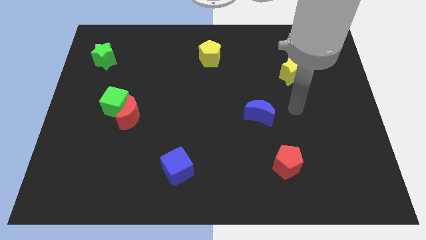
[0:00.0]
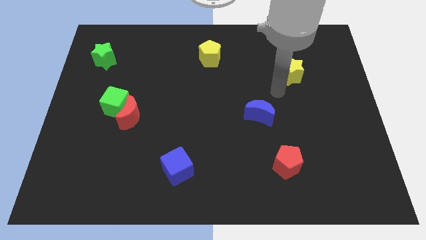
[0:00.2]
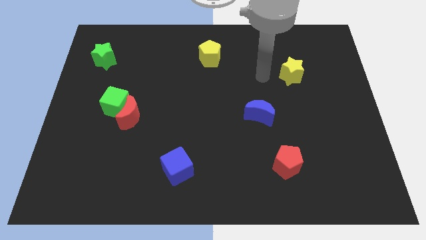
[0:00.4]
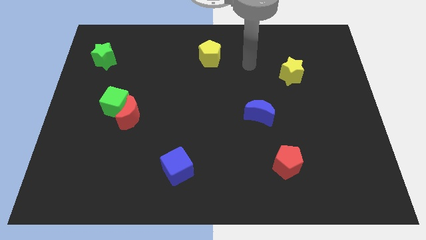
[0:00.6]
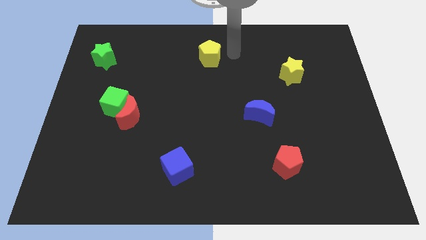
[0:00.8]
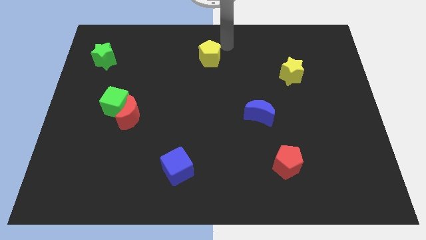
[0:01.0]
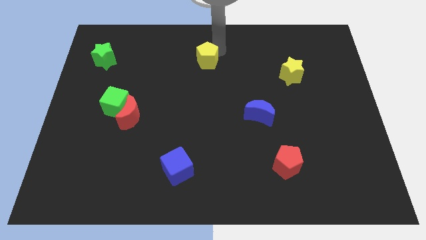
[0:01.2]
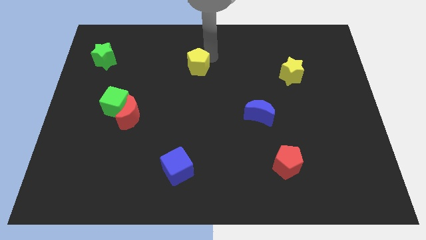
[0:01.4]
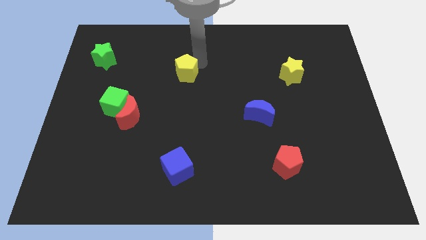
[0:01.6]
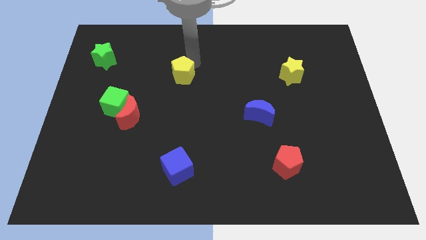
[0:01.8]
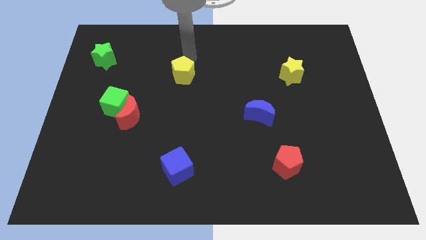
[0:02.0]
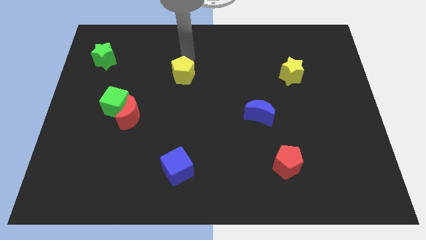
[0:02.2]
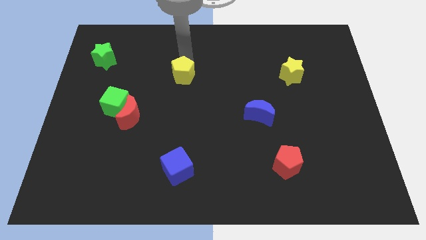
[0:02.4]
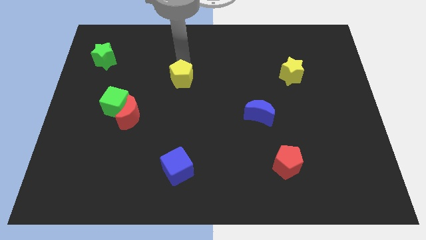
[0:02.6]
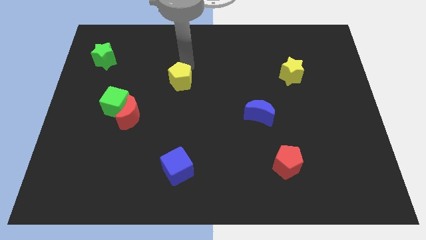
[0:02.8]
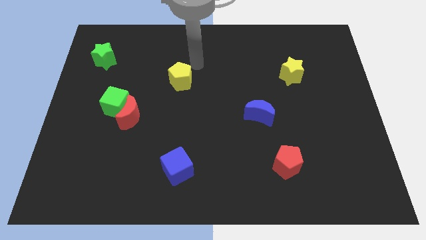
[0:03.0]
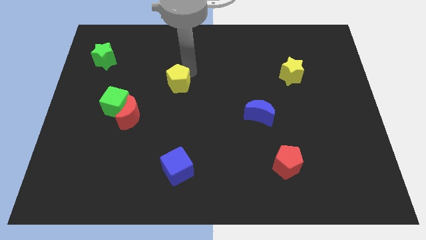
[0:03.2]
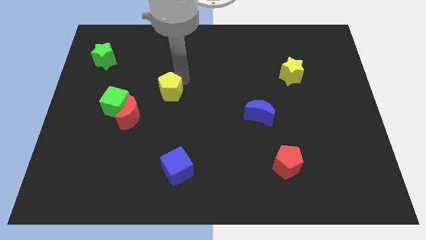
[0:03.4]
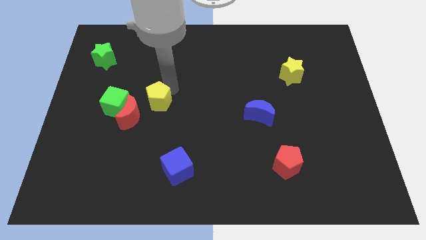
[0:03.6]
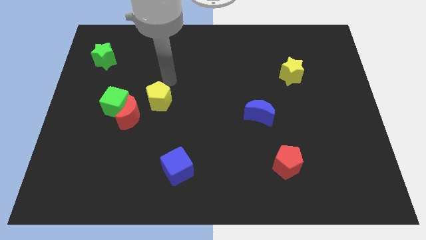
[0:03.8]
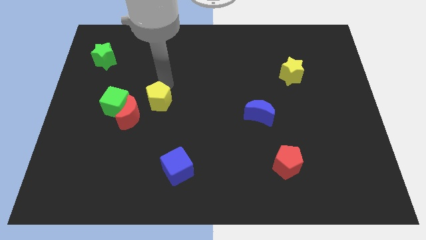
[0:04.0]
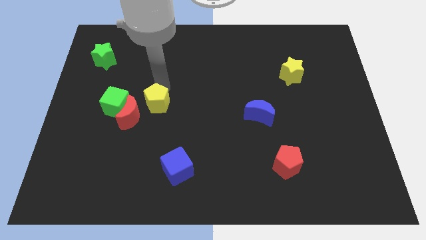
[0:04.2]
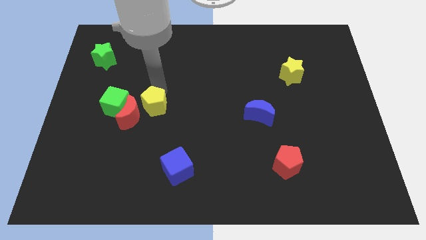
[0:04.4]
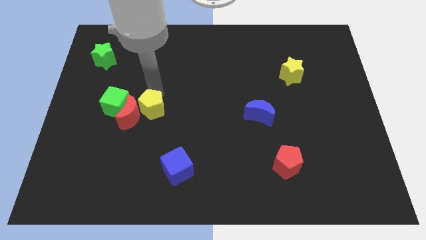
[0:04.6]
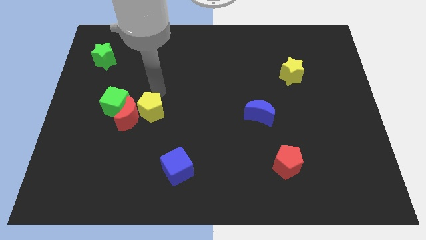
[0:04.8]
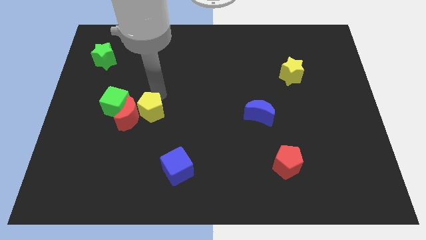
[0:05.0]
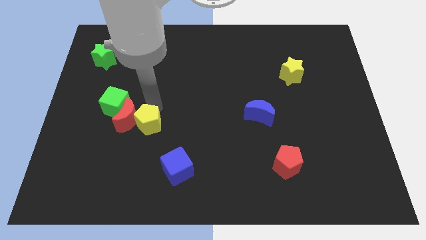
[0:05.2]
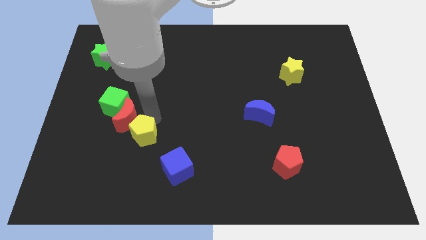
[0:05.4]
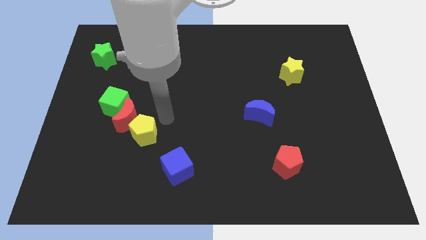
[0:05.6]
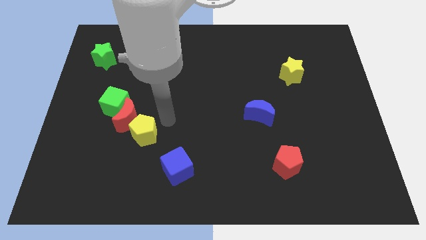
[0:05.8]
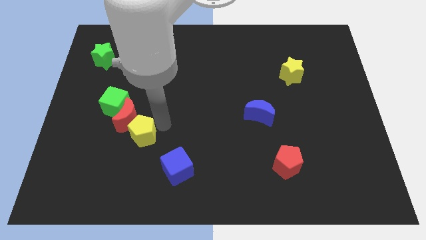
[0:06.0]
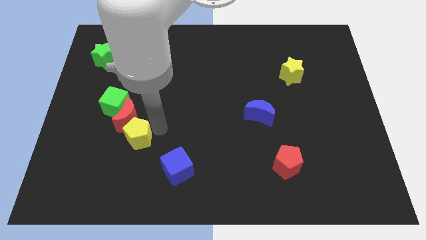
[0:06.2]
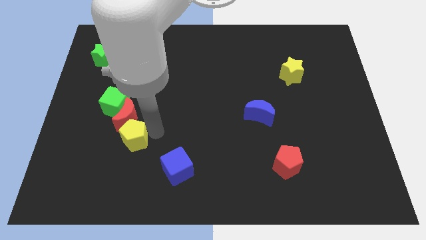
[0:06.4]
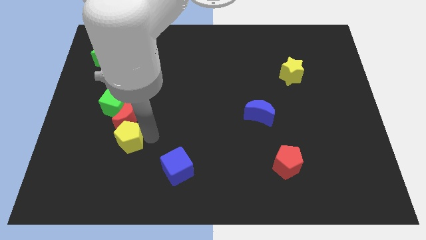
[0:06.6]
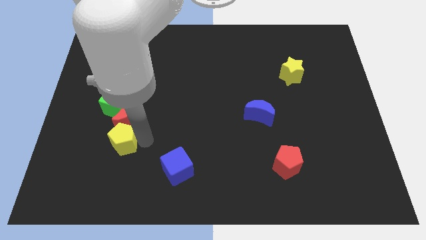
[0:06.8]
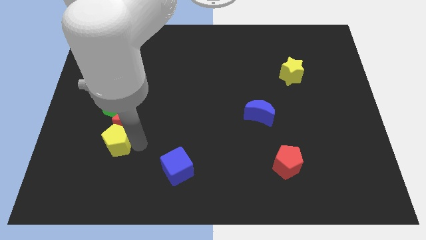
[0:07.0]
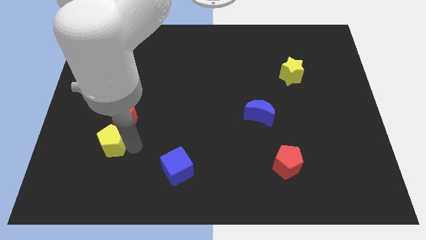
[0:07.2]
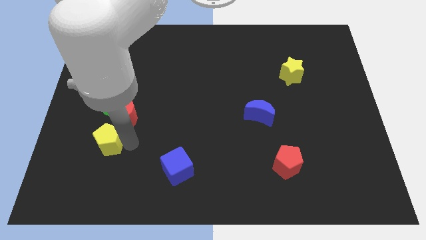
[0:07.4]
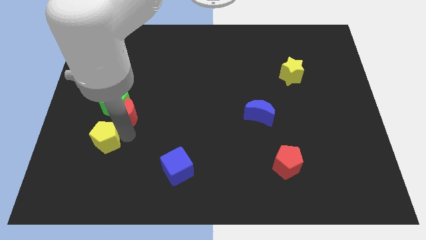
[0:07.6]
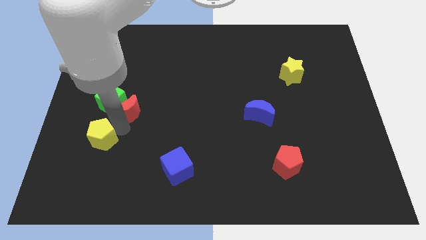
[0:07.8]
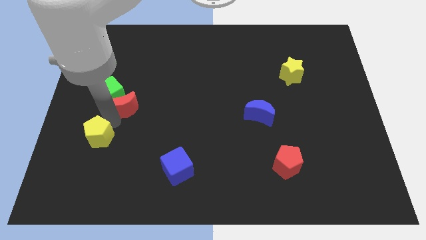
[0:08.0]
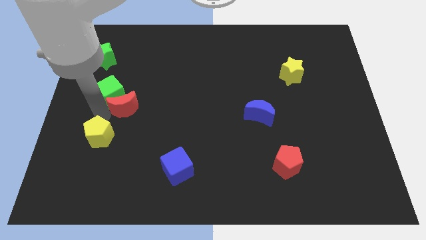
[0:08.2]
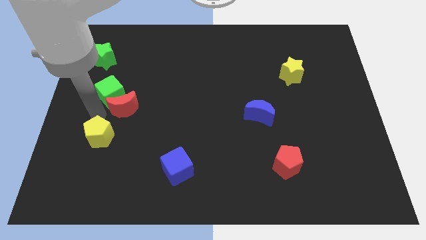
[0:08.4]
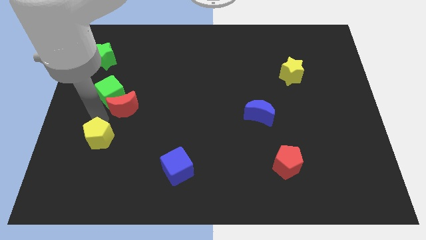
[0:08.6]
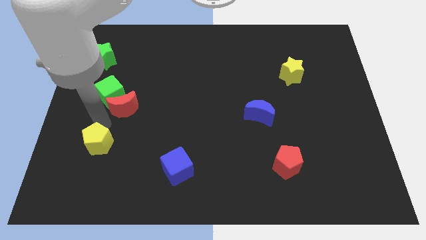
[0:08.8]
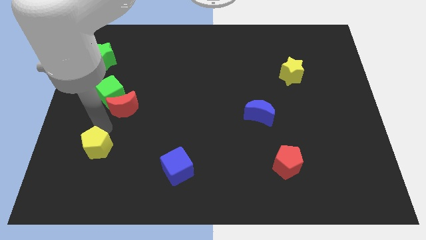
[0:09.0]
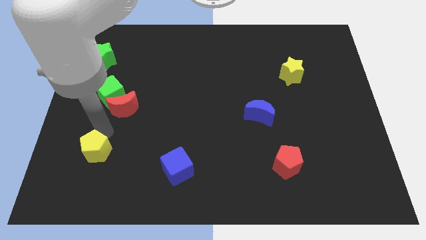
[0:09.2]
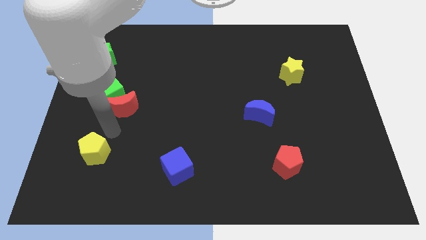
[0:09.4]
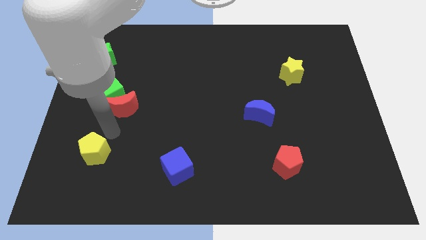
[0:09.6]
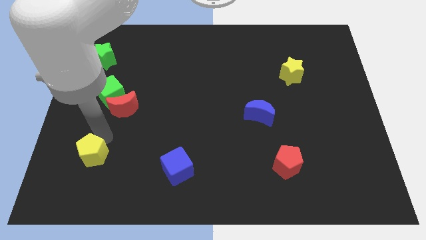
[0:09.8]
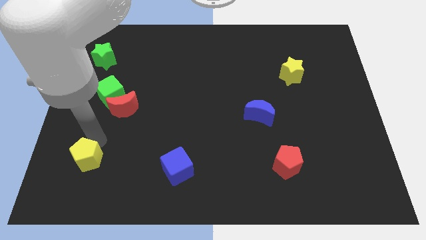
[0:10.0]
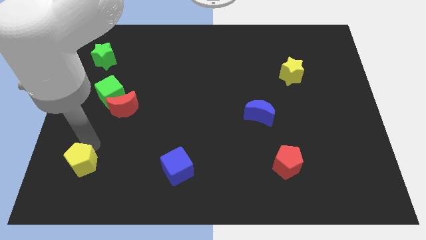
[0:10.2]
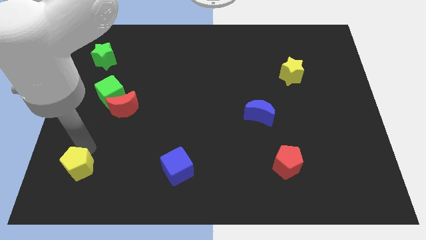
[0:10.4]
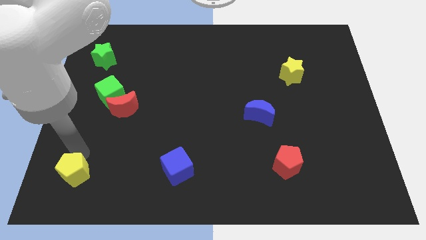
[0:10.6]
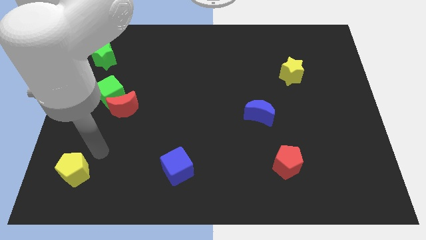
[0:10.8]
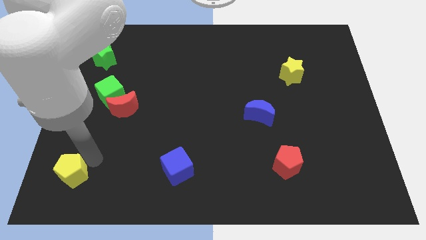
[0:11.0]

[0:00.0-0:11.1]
move the yellow pentagon to the bottom left of the board

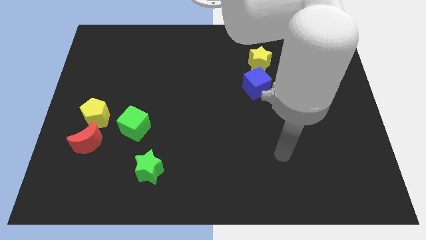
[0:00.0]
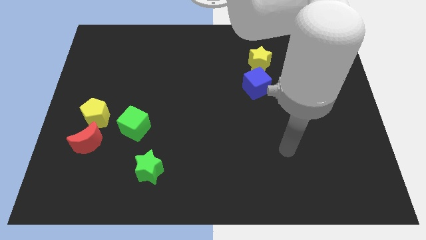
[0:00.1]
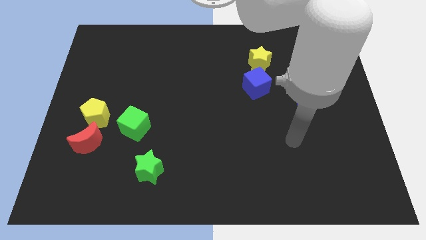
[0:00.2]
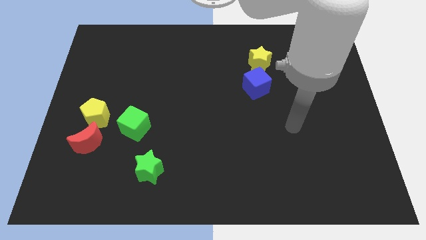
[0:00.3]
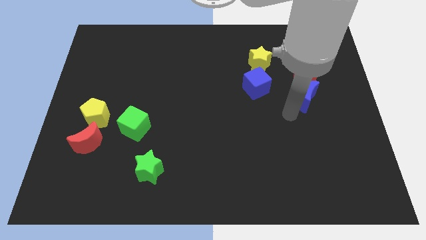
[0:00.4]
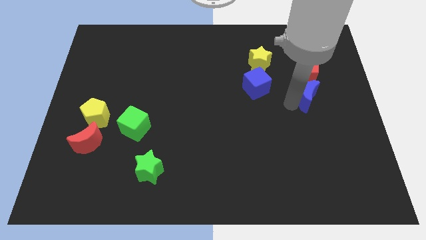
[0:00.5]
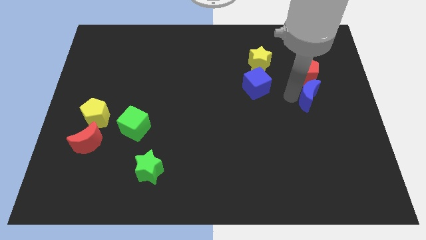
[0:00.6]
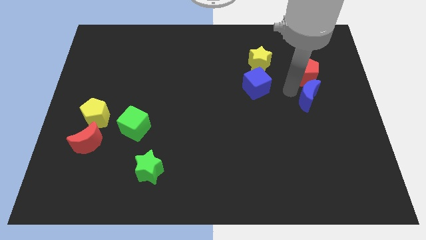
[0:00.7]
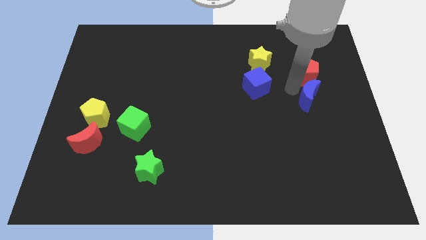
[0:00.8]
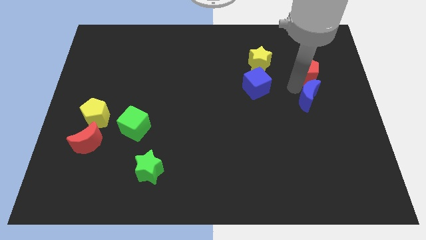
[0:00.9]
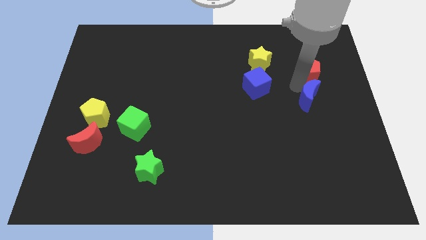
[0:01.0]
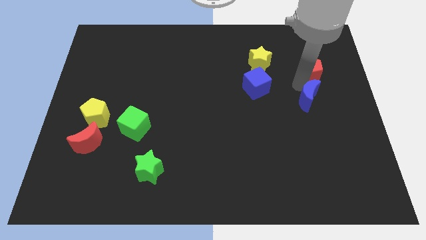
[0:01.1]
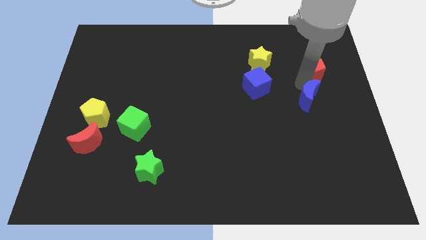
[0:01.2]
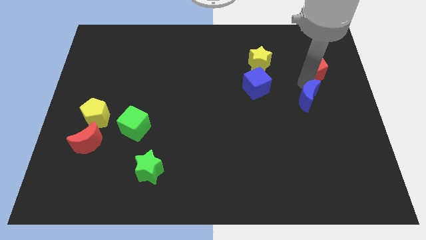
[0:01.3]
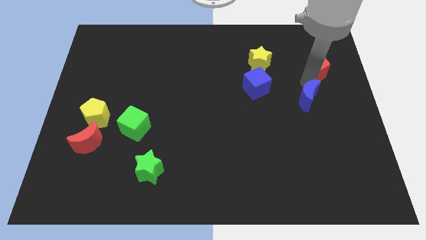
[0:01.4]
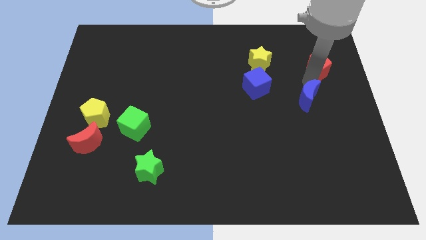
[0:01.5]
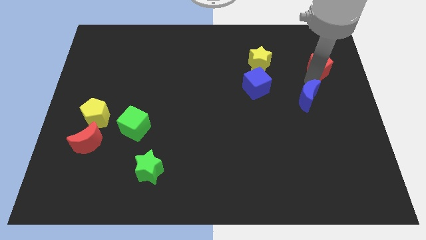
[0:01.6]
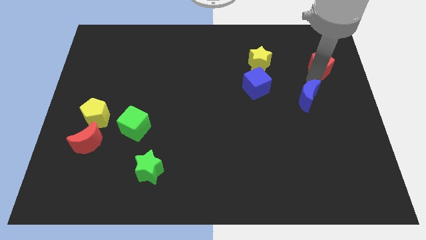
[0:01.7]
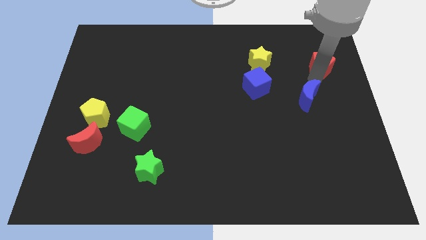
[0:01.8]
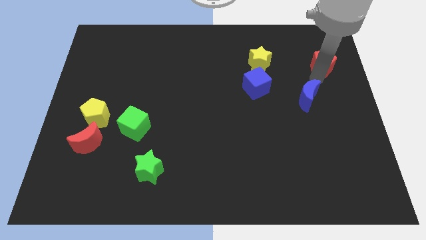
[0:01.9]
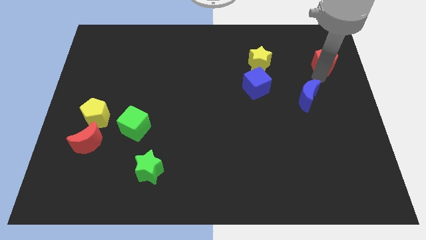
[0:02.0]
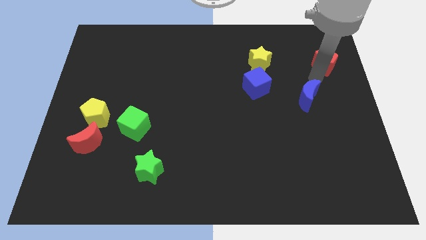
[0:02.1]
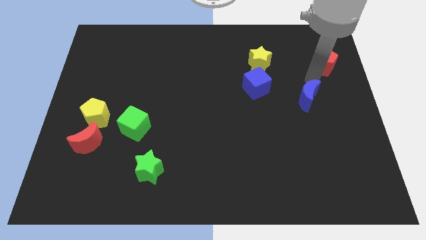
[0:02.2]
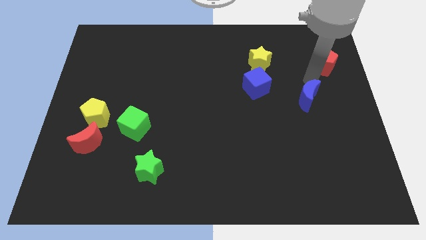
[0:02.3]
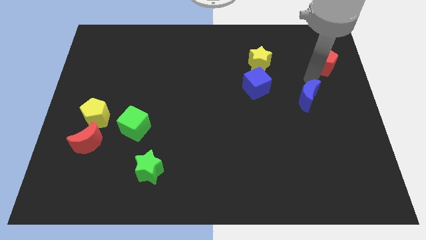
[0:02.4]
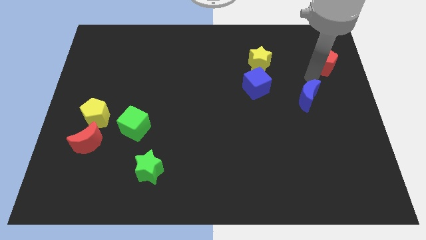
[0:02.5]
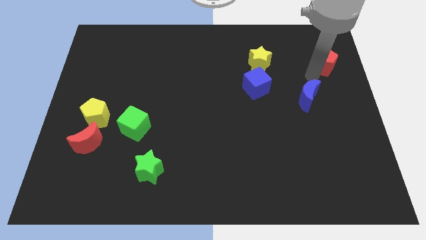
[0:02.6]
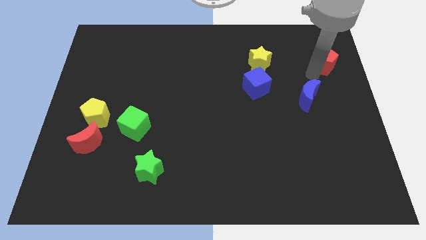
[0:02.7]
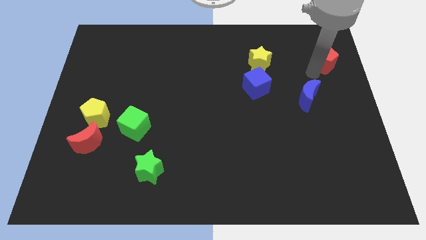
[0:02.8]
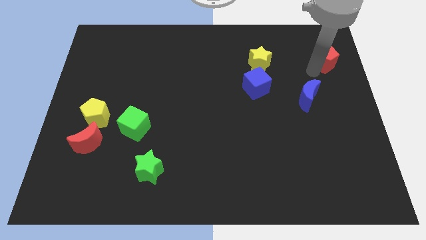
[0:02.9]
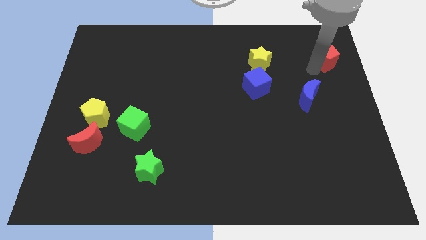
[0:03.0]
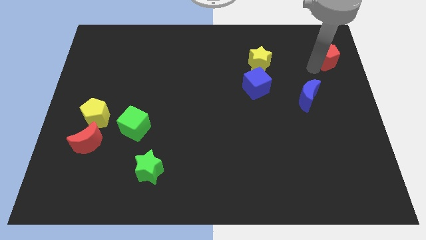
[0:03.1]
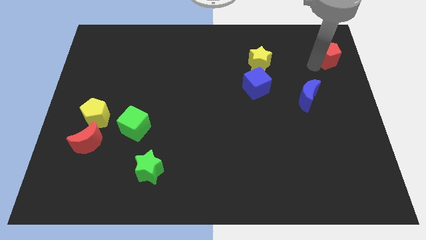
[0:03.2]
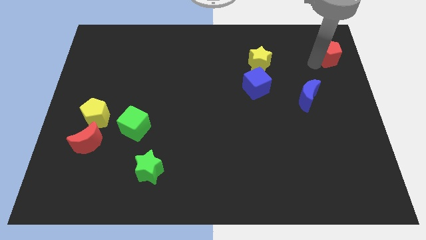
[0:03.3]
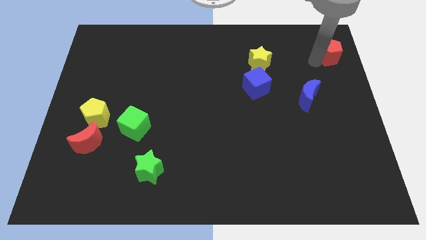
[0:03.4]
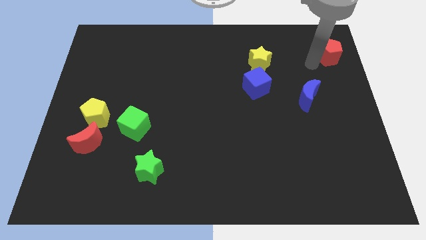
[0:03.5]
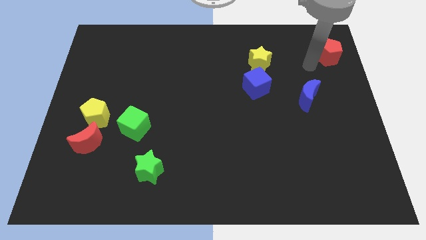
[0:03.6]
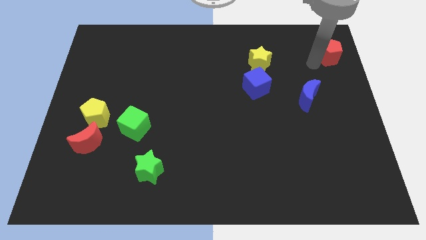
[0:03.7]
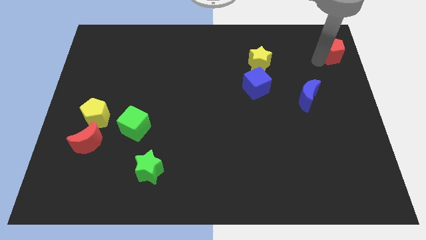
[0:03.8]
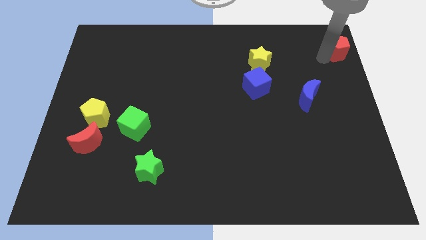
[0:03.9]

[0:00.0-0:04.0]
slide the red pentagon to the top right of the board
